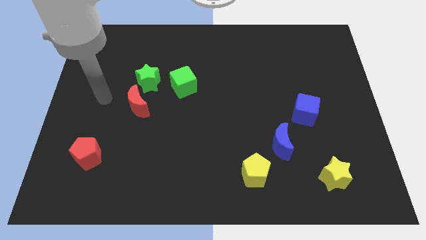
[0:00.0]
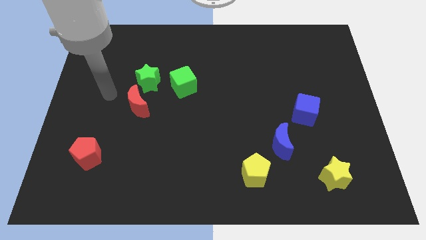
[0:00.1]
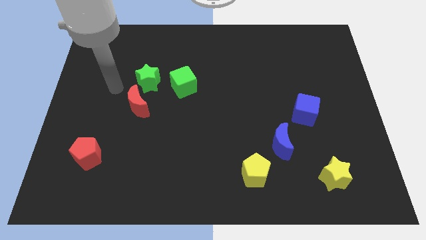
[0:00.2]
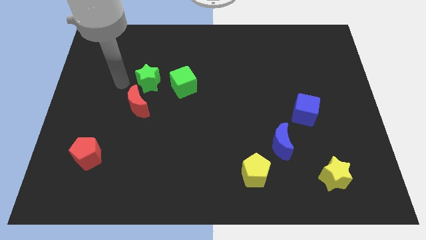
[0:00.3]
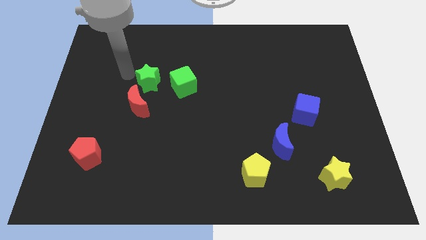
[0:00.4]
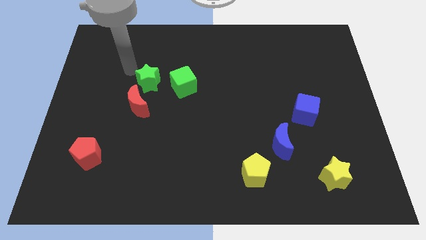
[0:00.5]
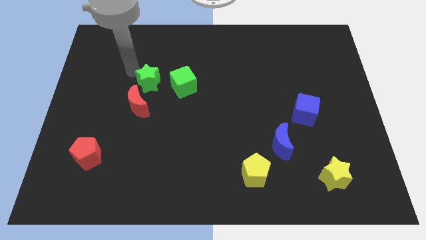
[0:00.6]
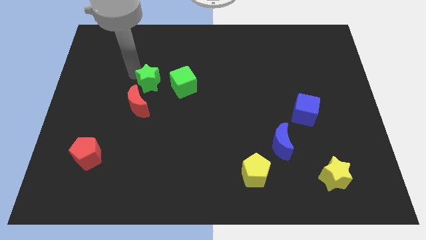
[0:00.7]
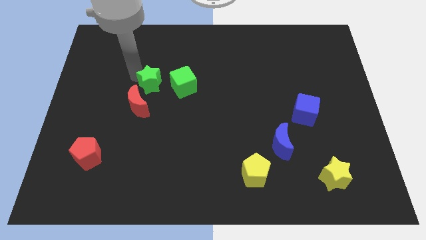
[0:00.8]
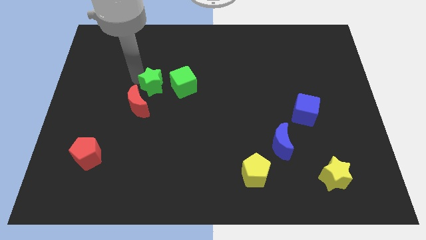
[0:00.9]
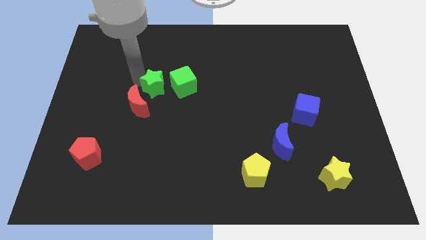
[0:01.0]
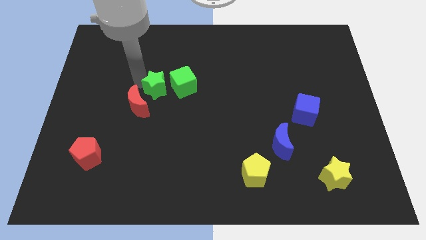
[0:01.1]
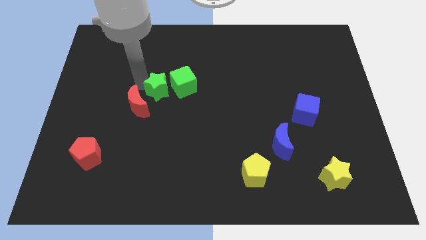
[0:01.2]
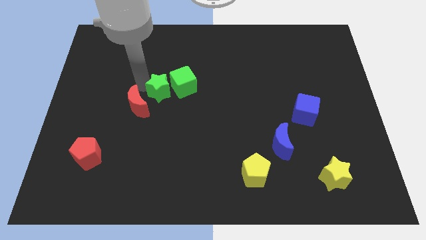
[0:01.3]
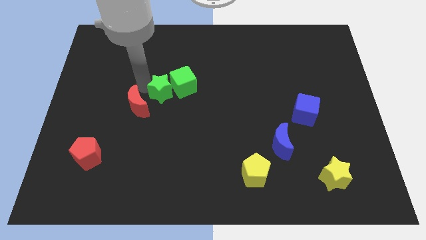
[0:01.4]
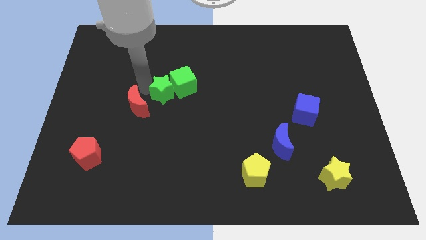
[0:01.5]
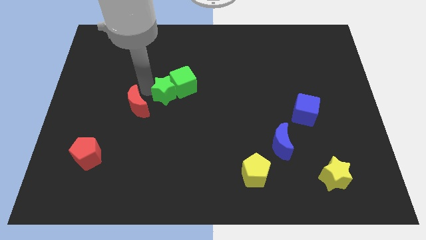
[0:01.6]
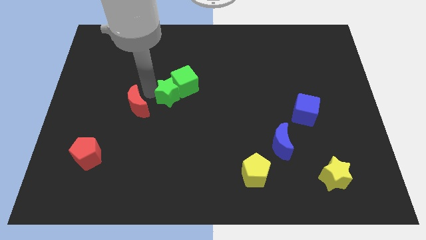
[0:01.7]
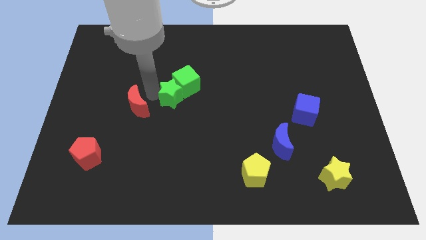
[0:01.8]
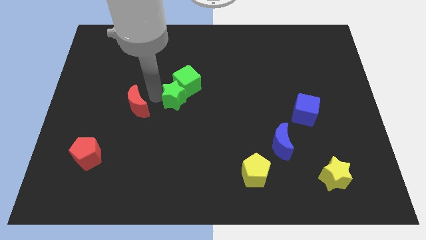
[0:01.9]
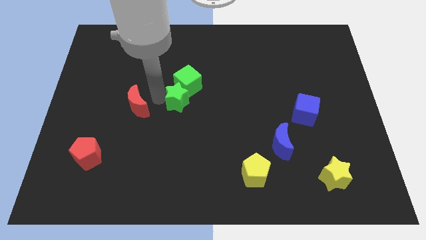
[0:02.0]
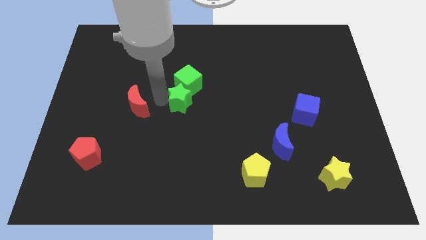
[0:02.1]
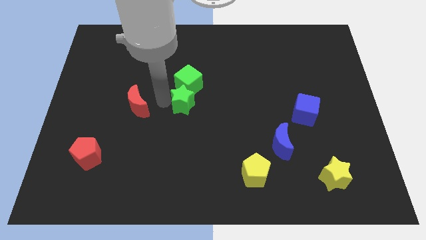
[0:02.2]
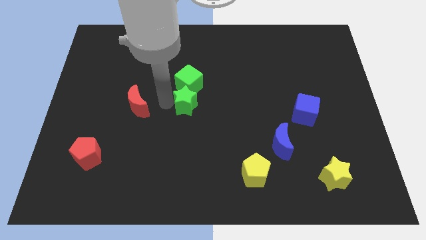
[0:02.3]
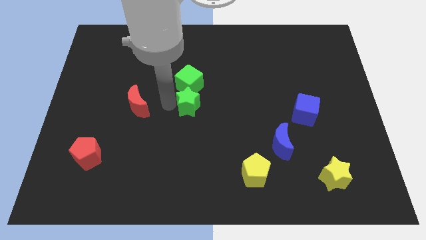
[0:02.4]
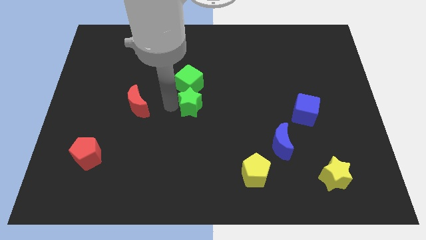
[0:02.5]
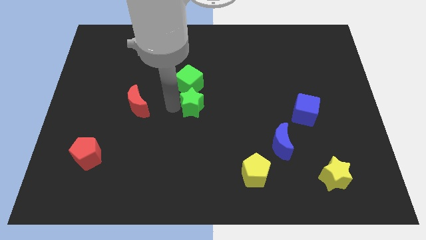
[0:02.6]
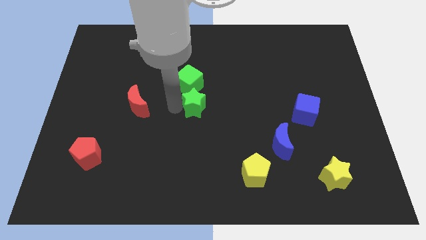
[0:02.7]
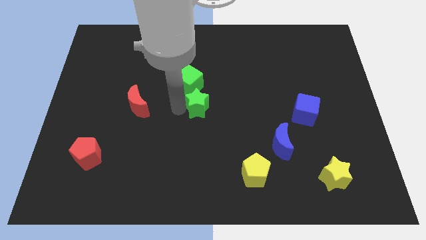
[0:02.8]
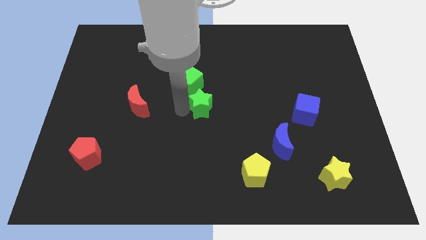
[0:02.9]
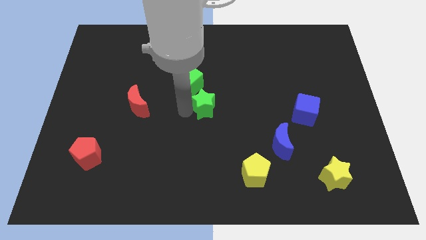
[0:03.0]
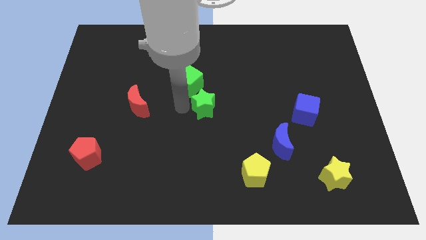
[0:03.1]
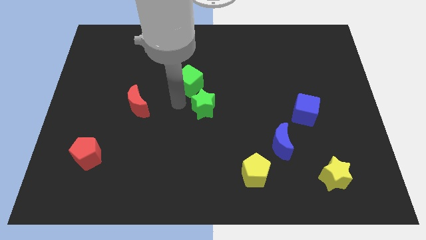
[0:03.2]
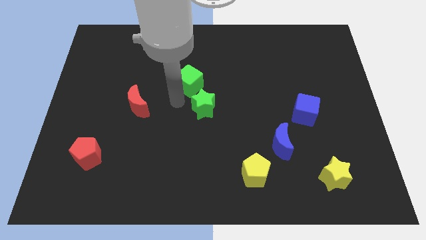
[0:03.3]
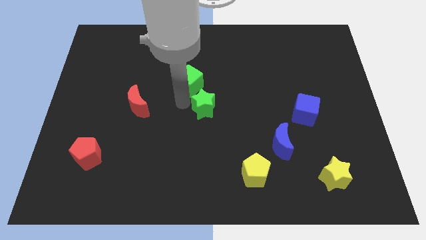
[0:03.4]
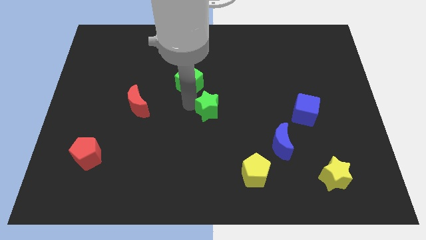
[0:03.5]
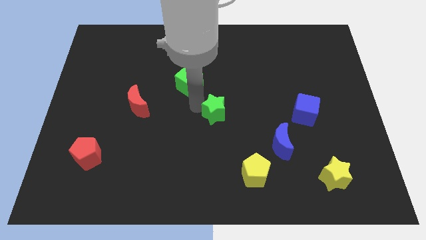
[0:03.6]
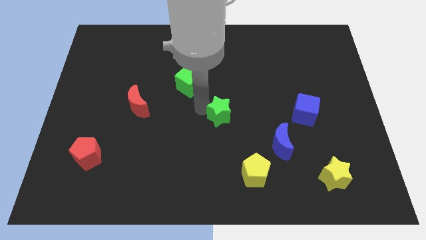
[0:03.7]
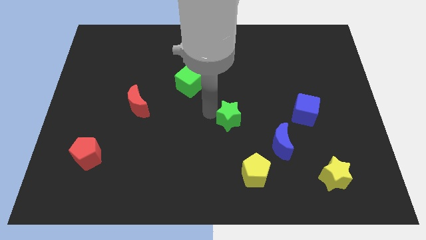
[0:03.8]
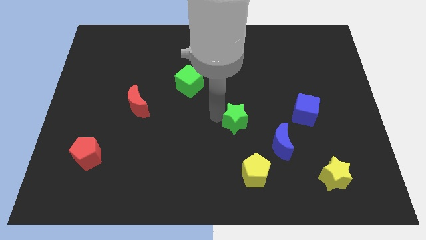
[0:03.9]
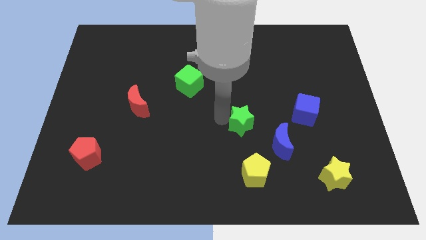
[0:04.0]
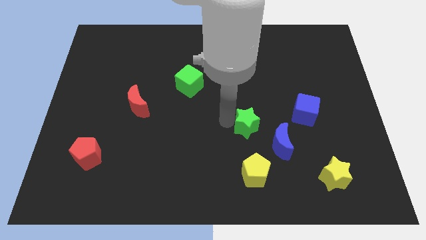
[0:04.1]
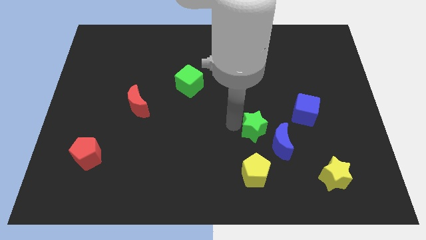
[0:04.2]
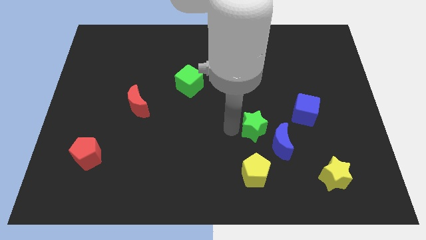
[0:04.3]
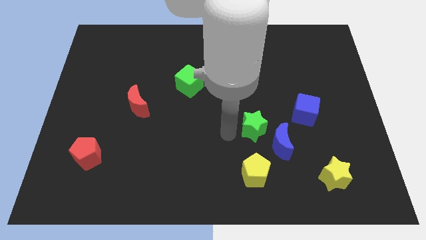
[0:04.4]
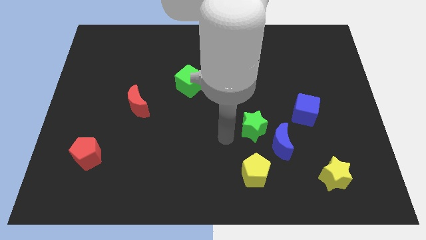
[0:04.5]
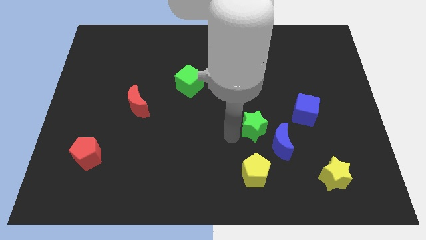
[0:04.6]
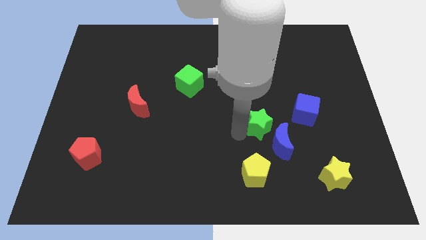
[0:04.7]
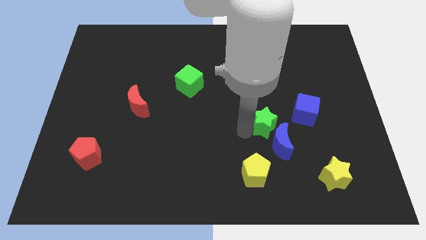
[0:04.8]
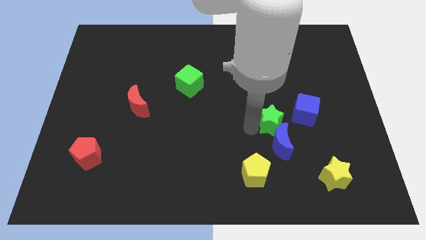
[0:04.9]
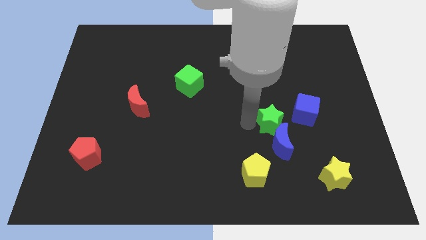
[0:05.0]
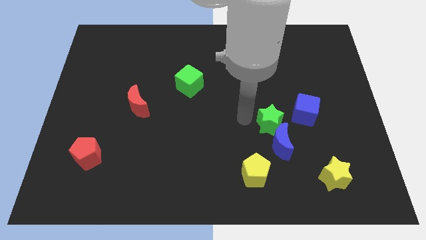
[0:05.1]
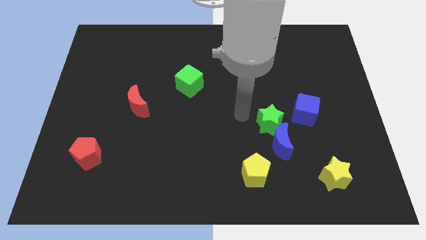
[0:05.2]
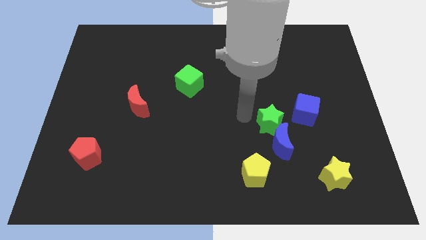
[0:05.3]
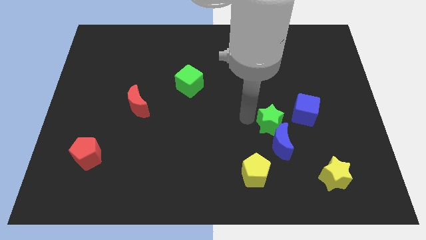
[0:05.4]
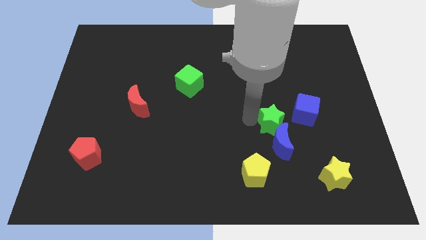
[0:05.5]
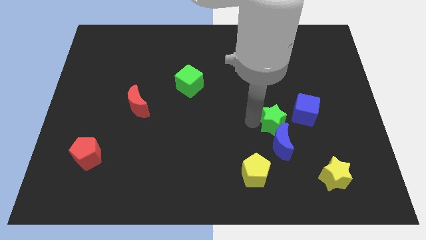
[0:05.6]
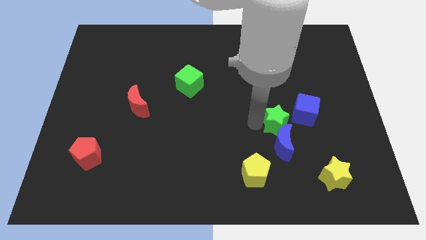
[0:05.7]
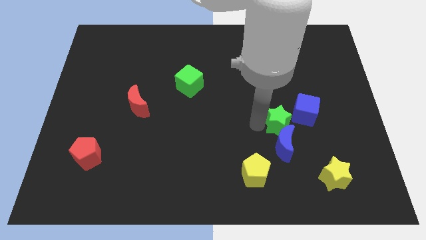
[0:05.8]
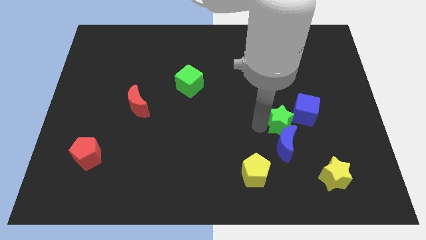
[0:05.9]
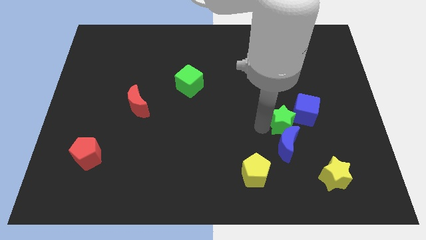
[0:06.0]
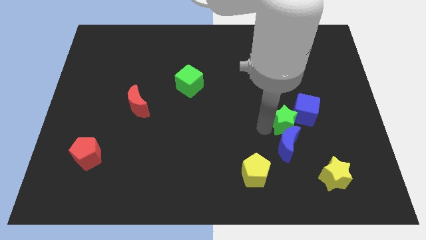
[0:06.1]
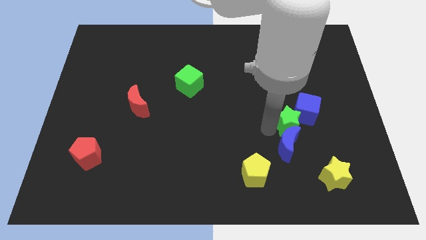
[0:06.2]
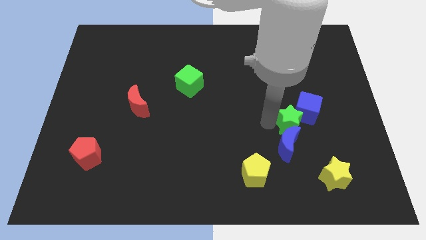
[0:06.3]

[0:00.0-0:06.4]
move the green star below the blue cube
